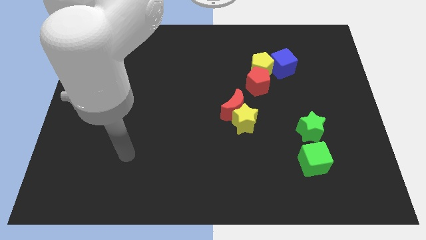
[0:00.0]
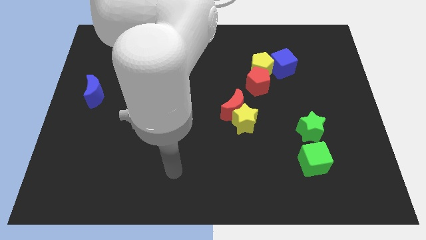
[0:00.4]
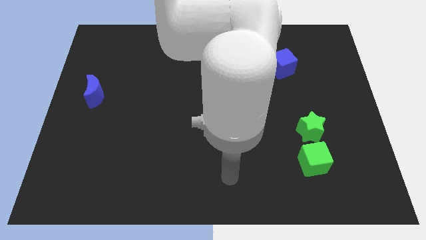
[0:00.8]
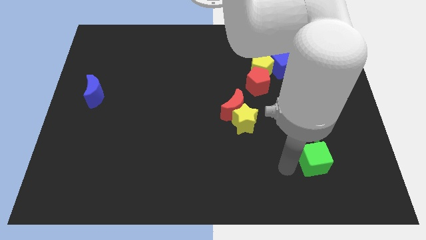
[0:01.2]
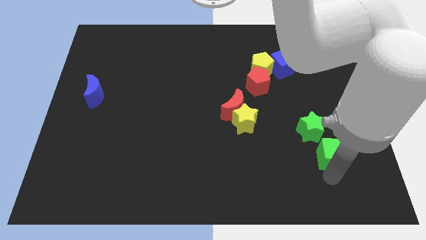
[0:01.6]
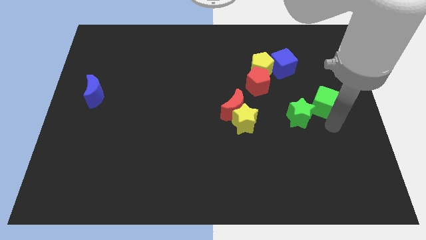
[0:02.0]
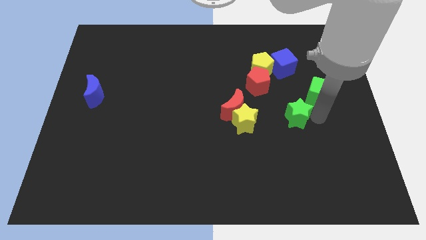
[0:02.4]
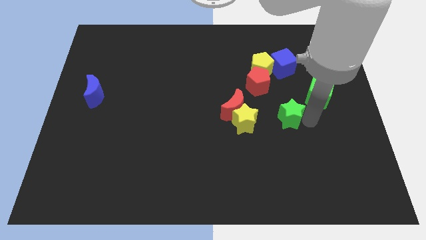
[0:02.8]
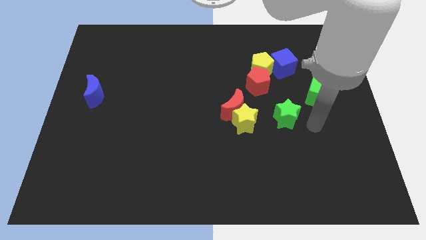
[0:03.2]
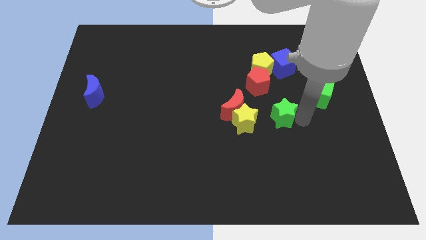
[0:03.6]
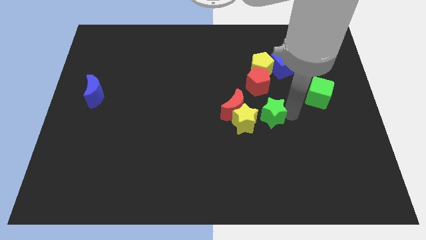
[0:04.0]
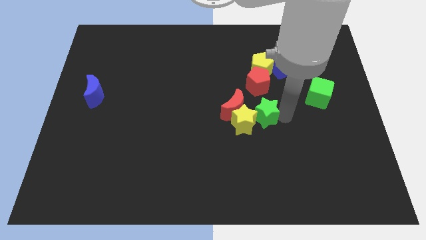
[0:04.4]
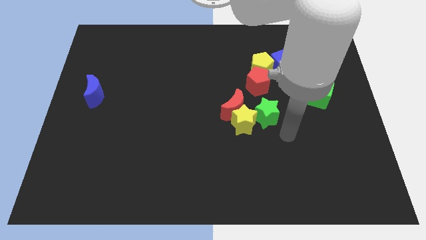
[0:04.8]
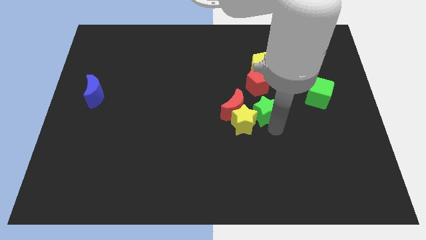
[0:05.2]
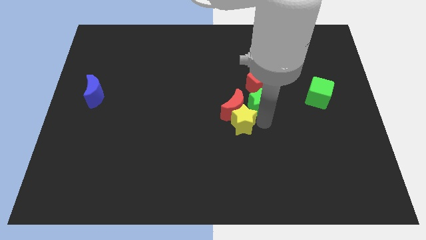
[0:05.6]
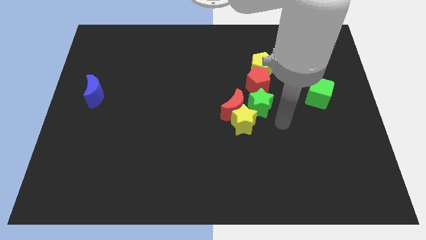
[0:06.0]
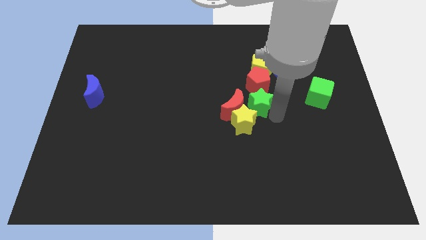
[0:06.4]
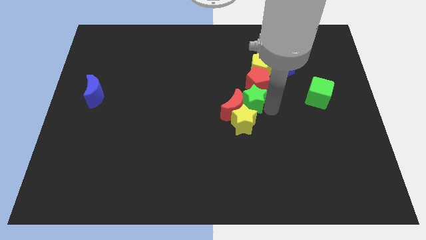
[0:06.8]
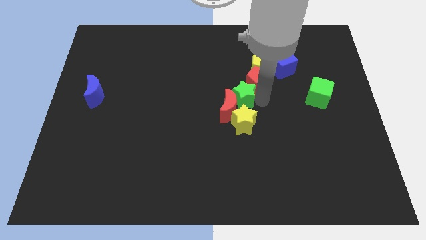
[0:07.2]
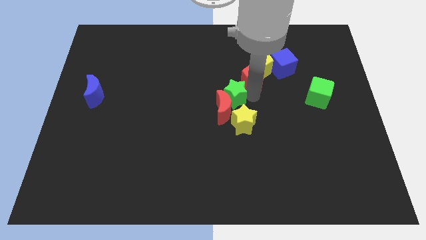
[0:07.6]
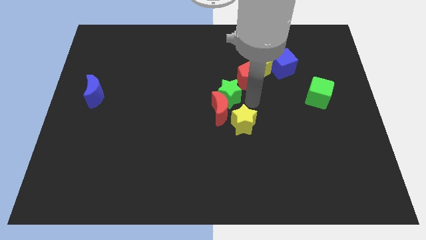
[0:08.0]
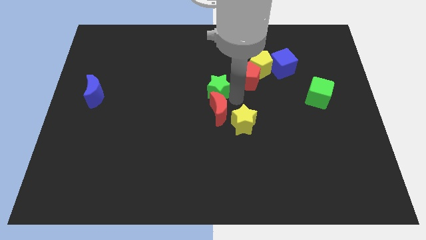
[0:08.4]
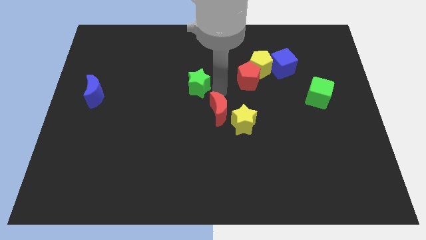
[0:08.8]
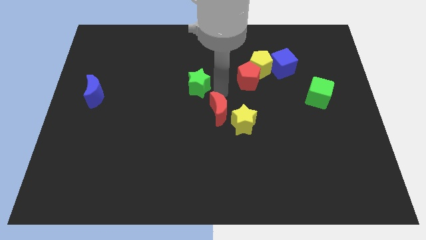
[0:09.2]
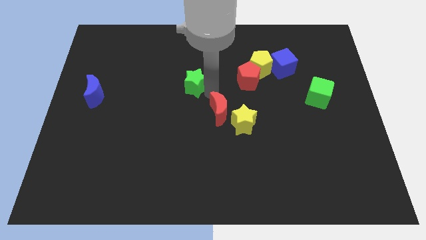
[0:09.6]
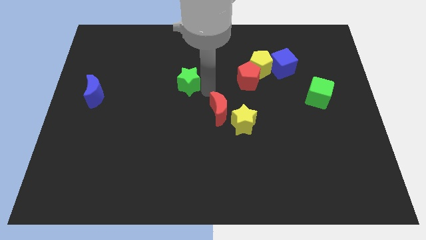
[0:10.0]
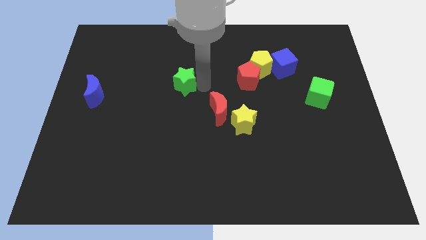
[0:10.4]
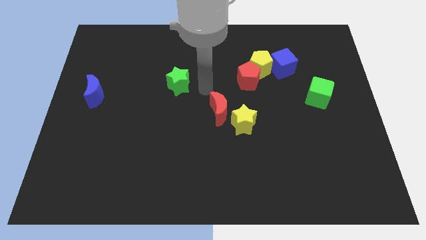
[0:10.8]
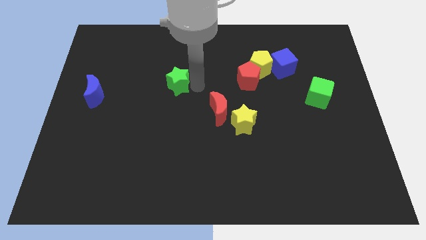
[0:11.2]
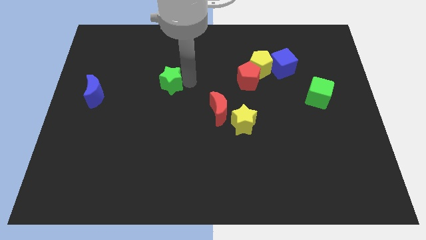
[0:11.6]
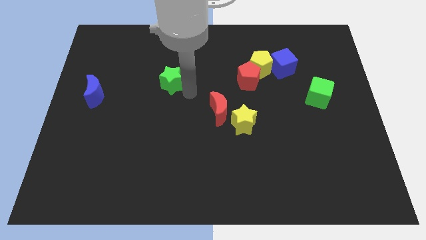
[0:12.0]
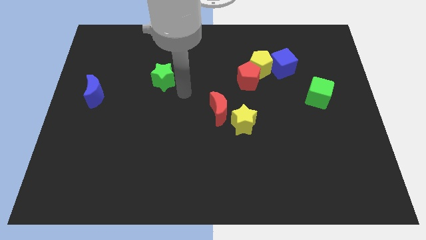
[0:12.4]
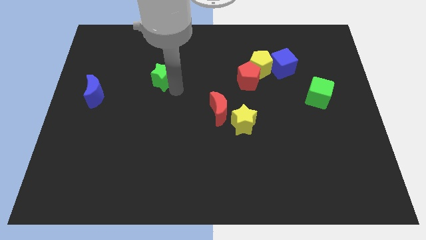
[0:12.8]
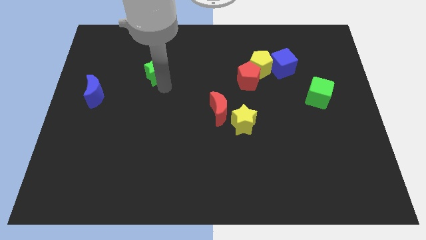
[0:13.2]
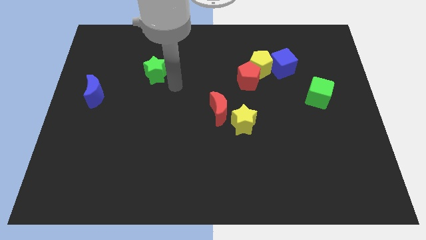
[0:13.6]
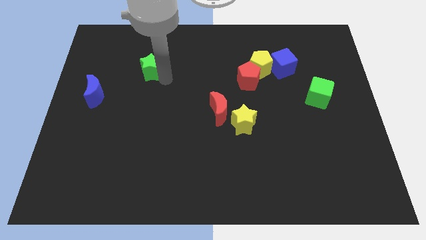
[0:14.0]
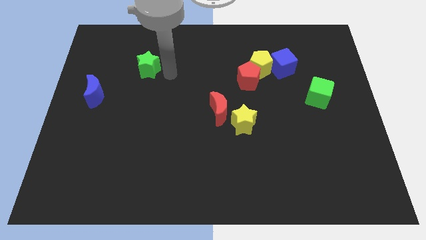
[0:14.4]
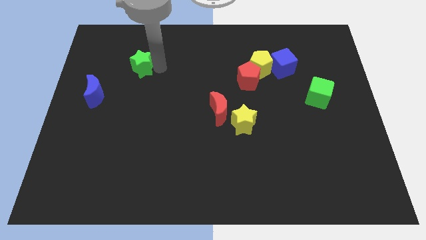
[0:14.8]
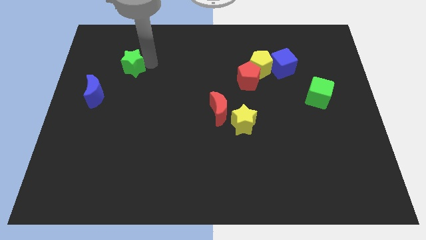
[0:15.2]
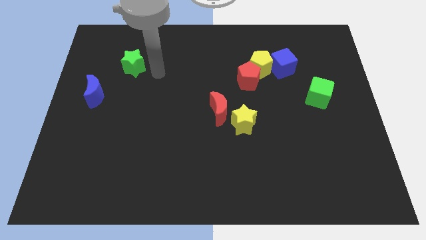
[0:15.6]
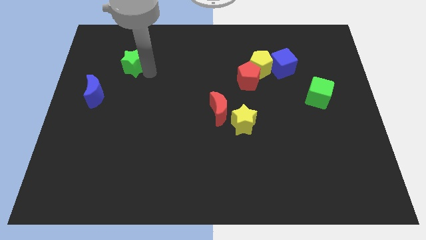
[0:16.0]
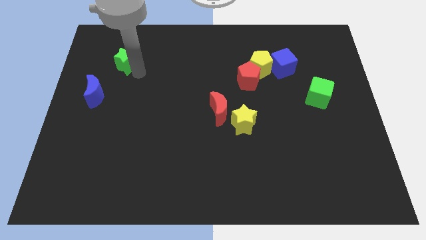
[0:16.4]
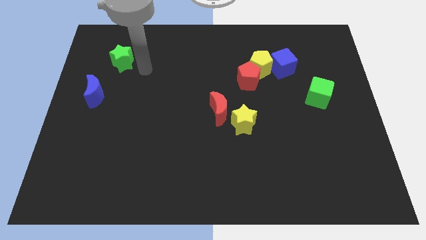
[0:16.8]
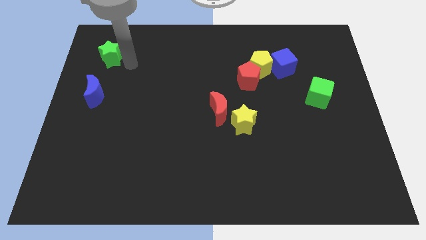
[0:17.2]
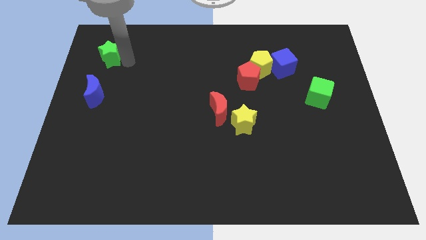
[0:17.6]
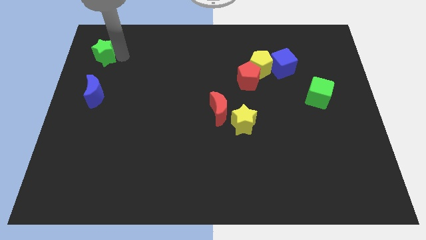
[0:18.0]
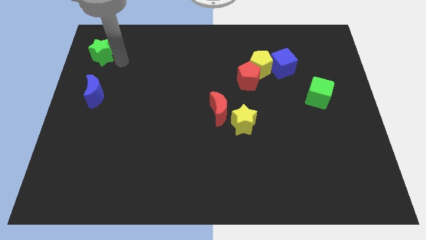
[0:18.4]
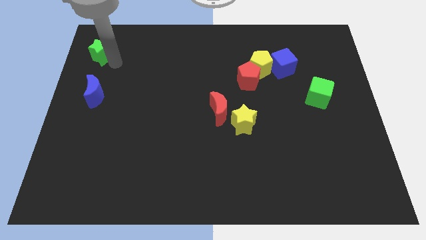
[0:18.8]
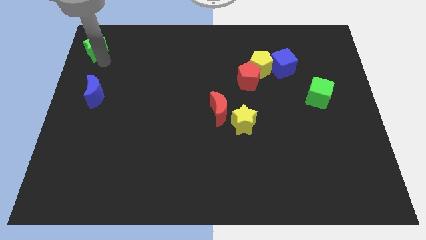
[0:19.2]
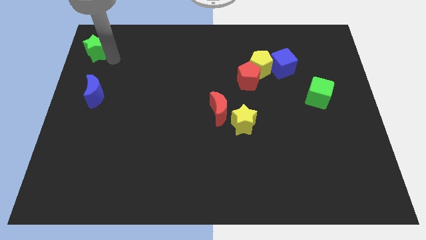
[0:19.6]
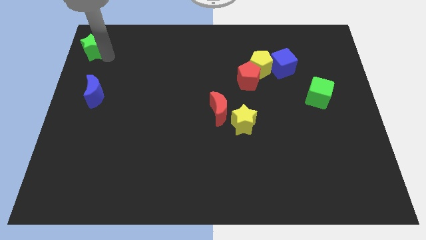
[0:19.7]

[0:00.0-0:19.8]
push the green star to the top left

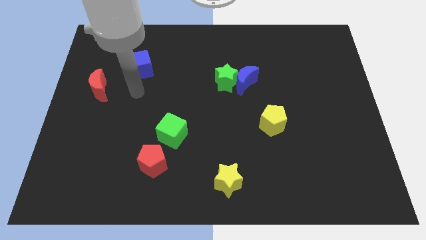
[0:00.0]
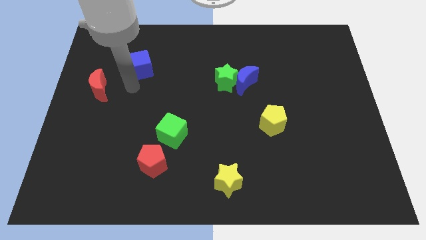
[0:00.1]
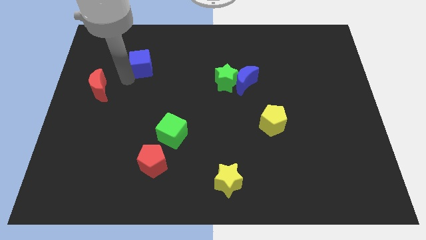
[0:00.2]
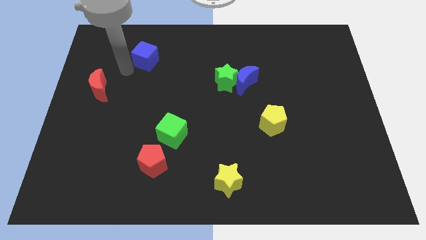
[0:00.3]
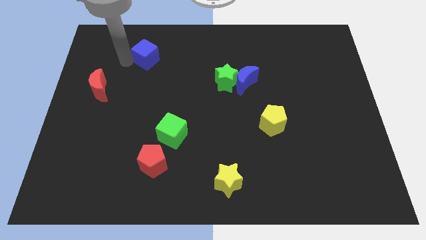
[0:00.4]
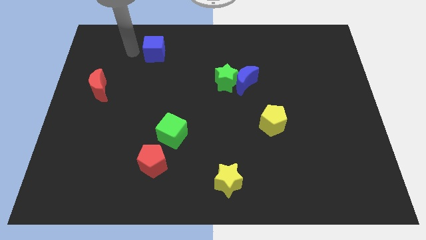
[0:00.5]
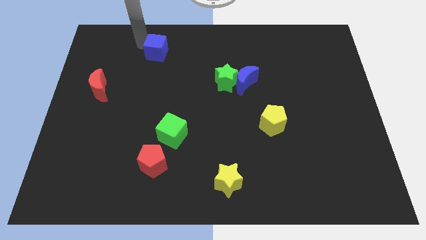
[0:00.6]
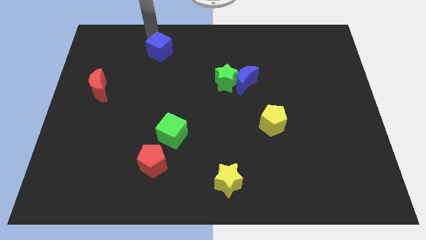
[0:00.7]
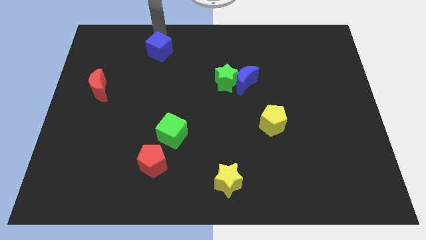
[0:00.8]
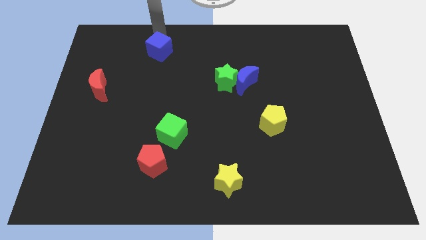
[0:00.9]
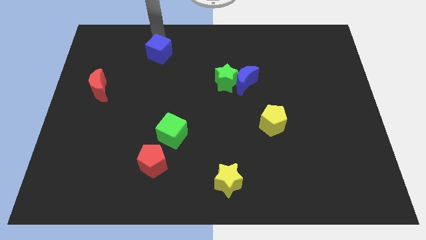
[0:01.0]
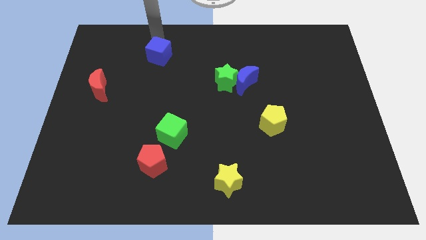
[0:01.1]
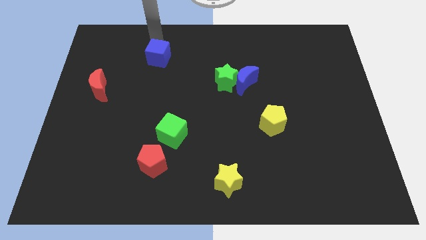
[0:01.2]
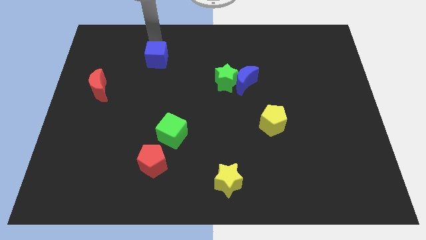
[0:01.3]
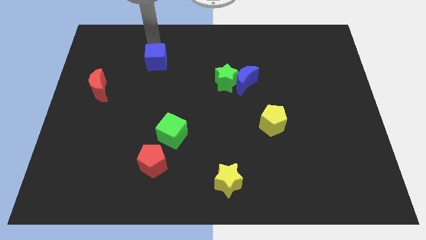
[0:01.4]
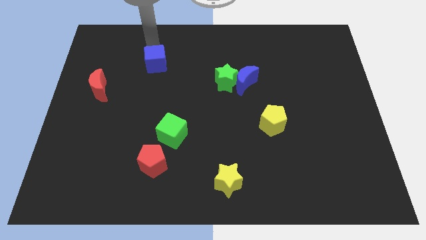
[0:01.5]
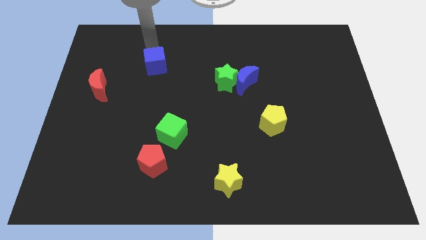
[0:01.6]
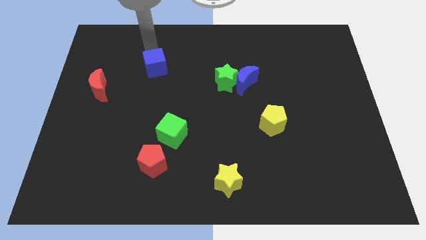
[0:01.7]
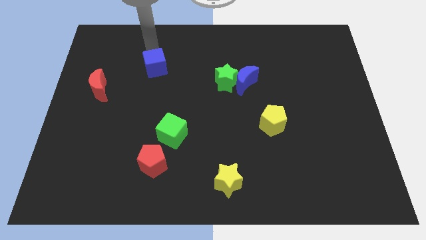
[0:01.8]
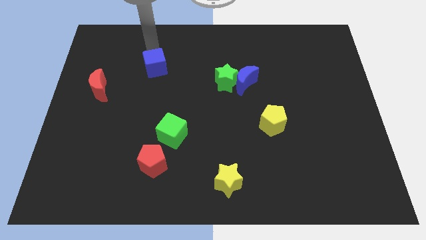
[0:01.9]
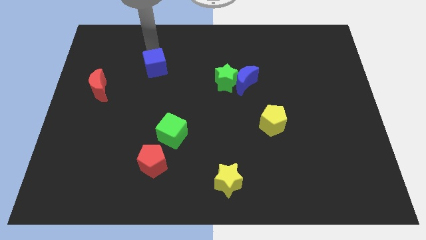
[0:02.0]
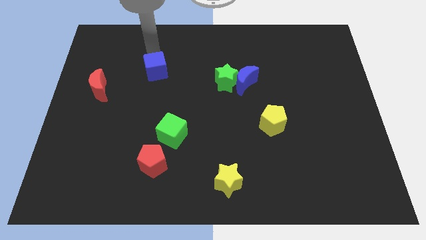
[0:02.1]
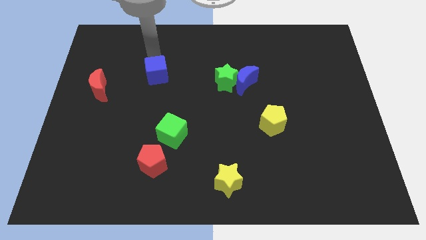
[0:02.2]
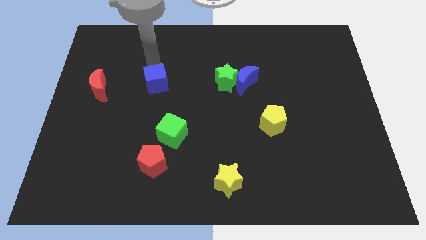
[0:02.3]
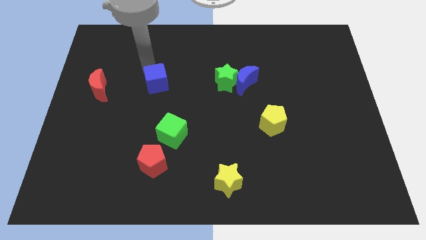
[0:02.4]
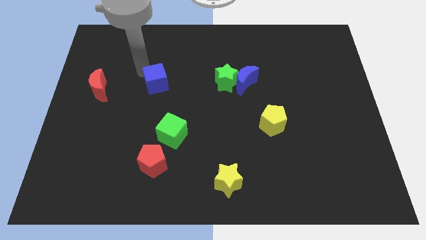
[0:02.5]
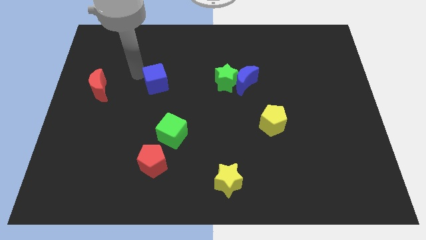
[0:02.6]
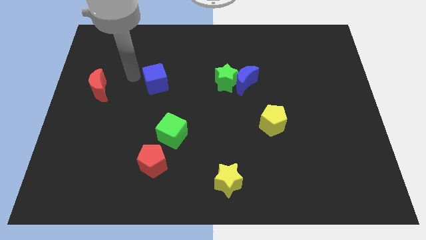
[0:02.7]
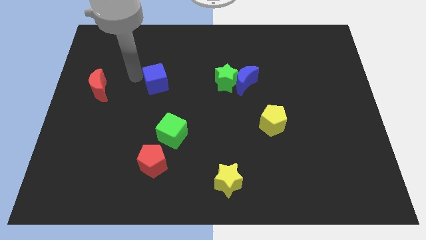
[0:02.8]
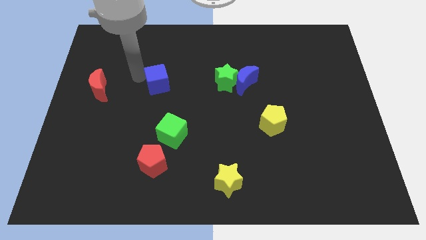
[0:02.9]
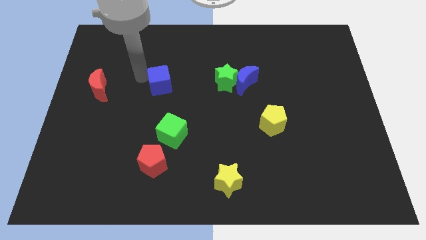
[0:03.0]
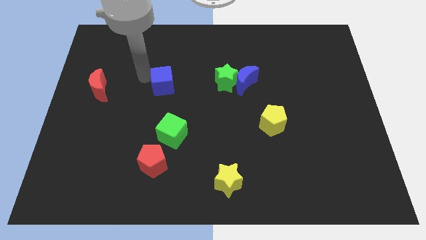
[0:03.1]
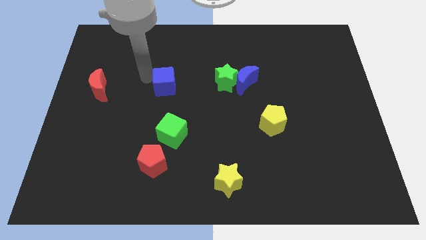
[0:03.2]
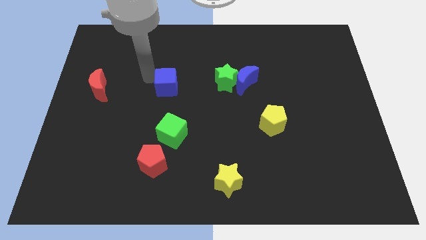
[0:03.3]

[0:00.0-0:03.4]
slide the blue cube to the middle
